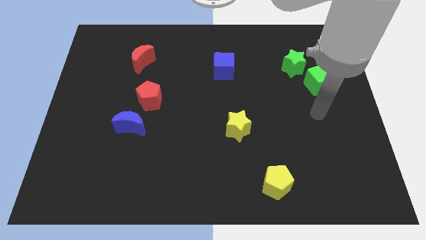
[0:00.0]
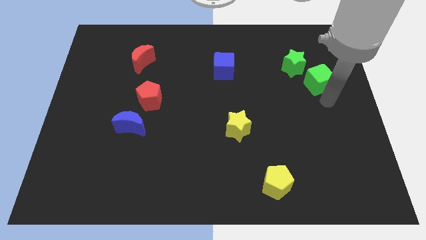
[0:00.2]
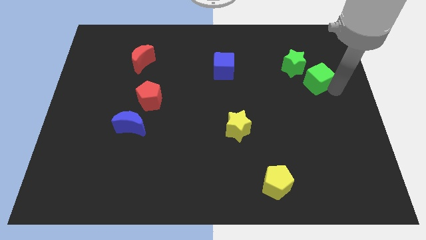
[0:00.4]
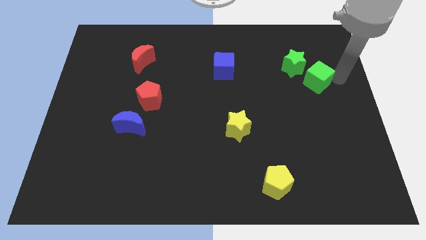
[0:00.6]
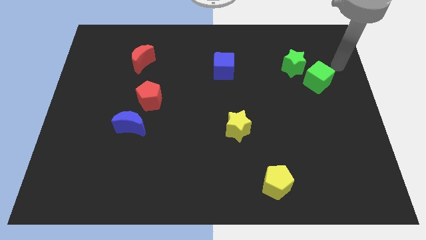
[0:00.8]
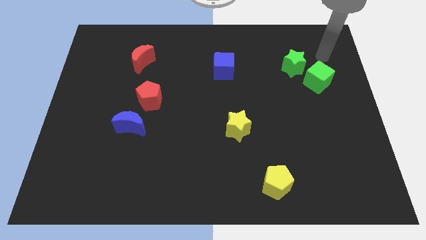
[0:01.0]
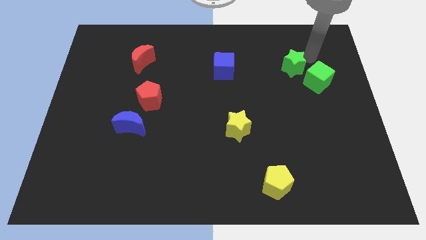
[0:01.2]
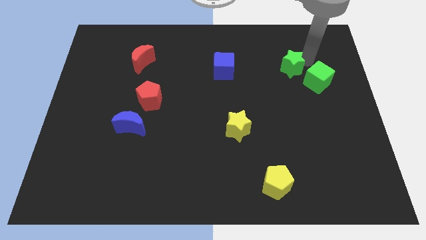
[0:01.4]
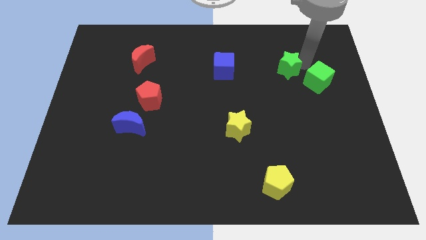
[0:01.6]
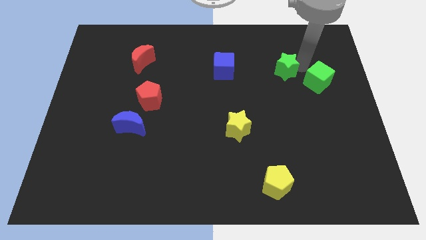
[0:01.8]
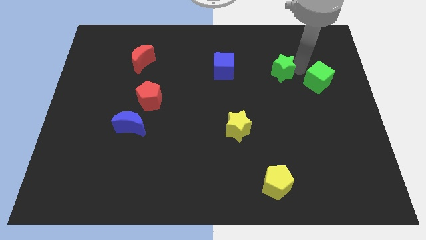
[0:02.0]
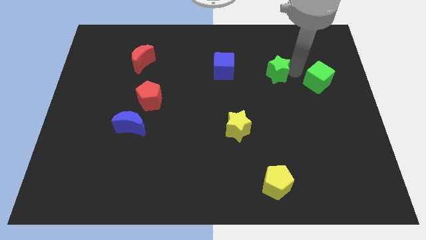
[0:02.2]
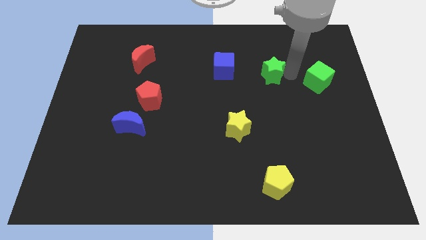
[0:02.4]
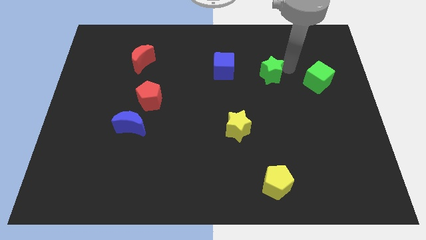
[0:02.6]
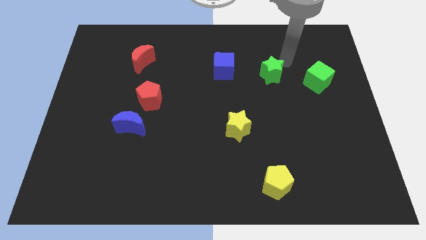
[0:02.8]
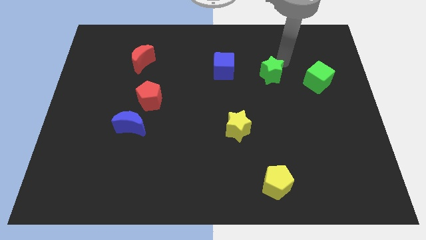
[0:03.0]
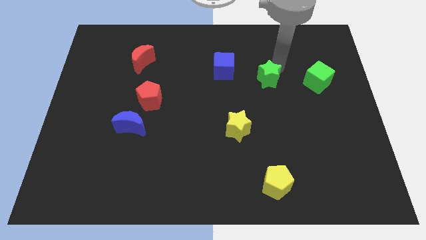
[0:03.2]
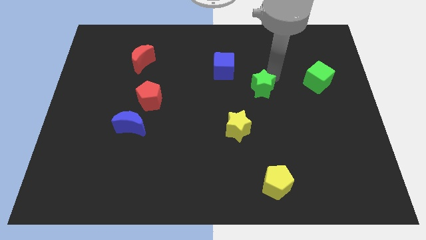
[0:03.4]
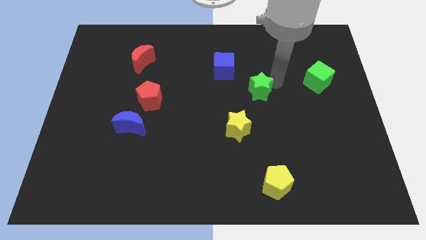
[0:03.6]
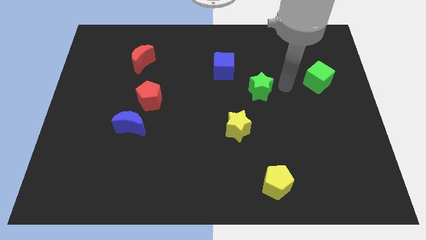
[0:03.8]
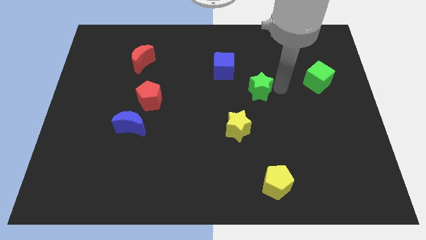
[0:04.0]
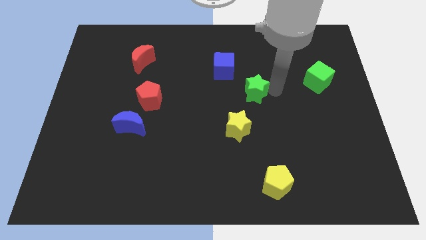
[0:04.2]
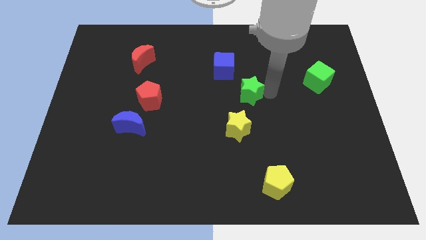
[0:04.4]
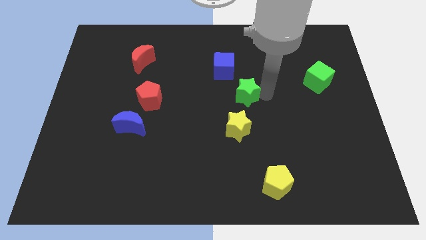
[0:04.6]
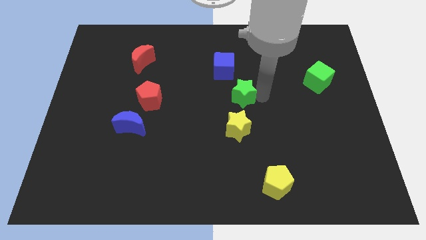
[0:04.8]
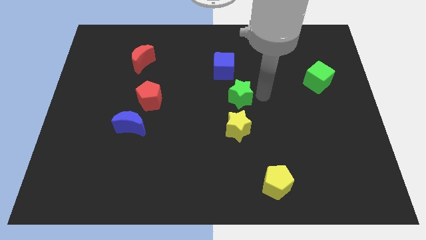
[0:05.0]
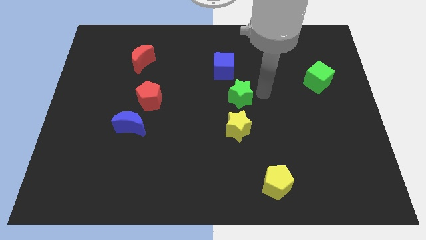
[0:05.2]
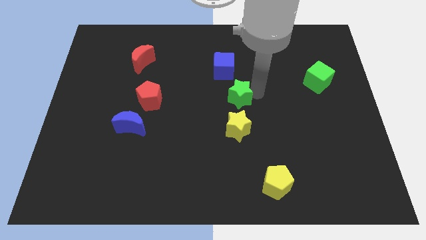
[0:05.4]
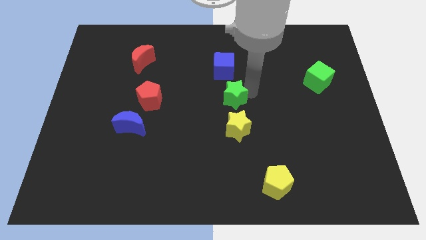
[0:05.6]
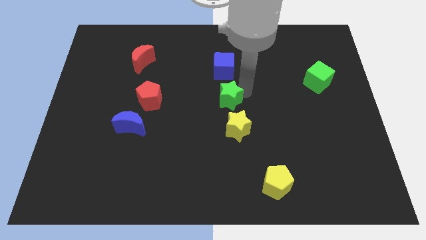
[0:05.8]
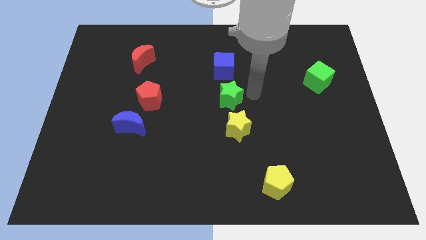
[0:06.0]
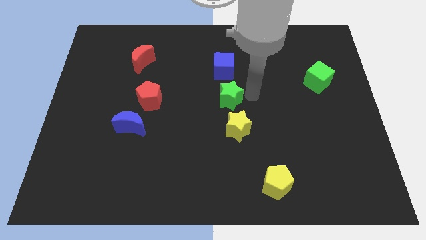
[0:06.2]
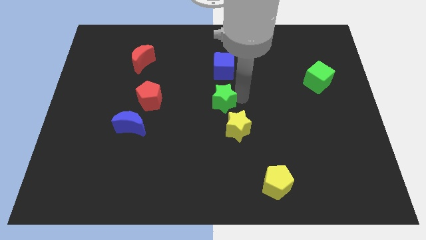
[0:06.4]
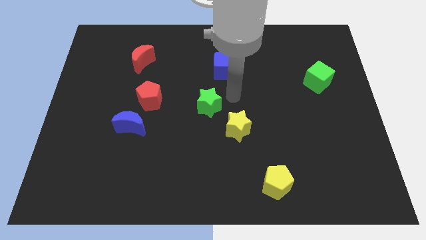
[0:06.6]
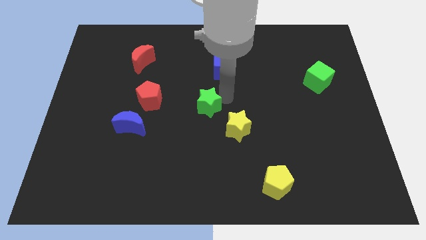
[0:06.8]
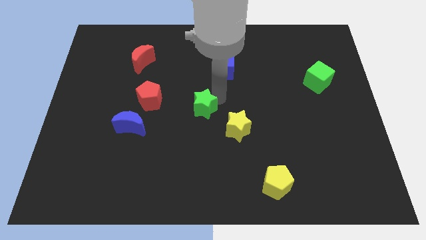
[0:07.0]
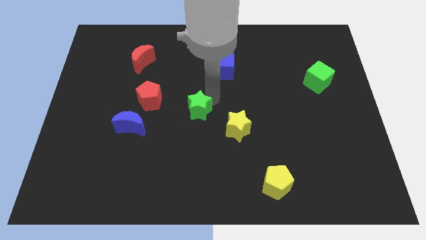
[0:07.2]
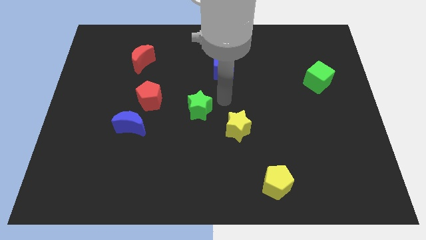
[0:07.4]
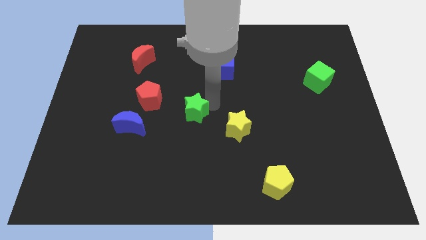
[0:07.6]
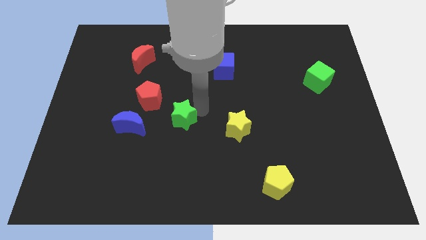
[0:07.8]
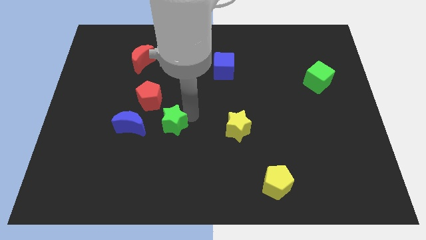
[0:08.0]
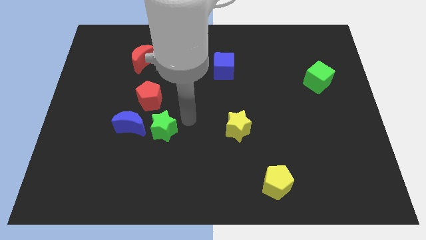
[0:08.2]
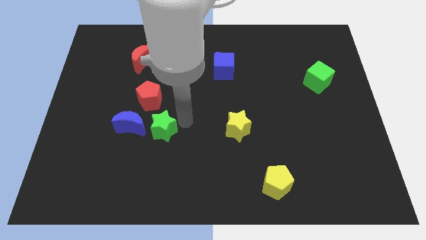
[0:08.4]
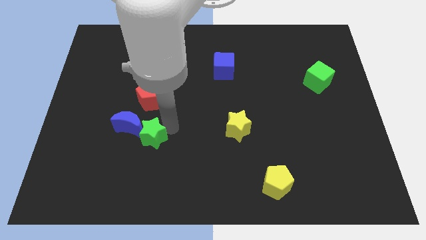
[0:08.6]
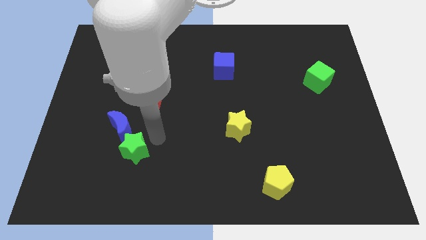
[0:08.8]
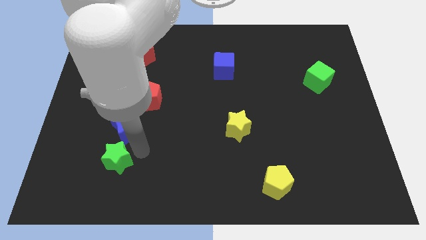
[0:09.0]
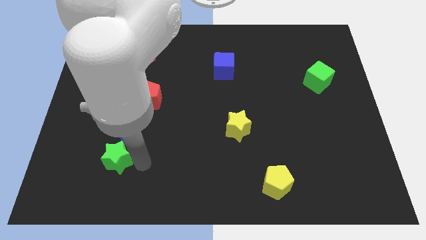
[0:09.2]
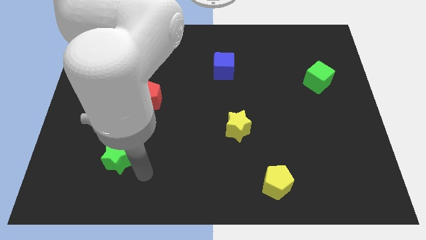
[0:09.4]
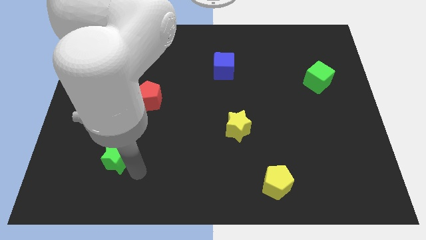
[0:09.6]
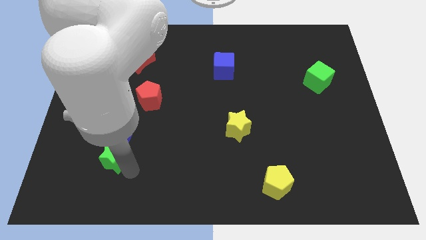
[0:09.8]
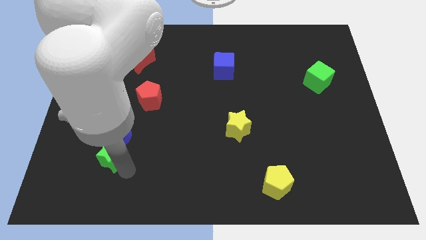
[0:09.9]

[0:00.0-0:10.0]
slide the green star diagonally down and to the left of the blue moon

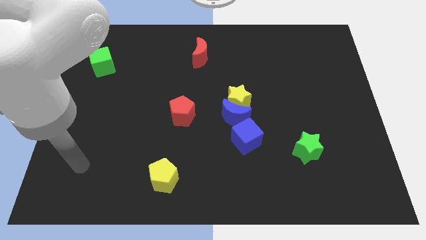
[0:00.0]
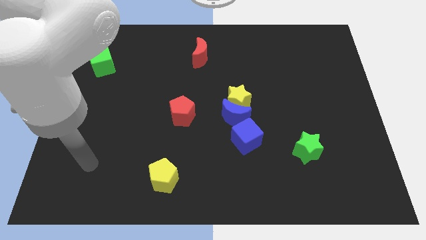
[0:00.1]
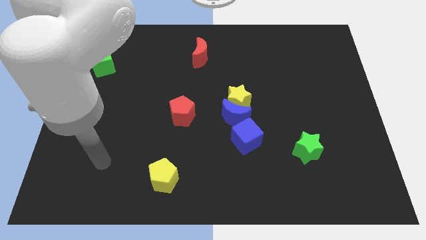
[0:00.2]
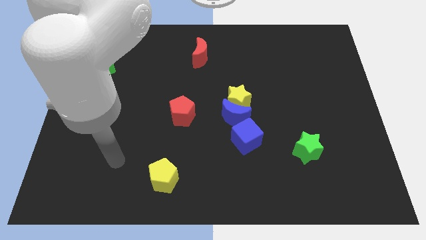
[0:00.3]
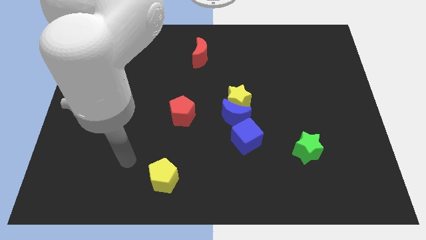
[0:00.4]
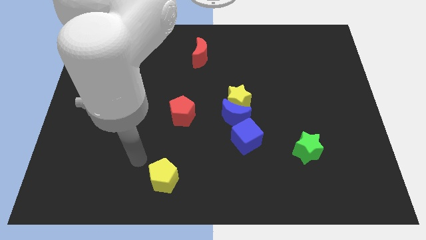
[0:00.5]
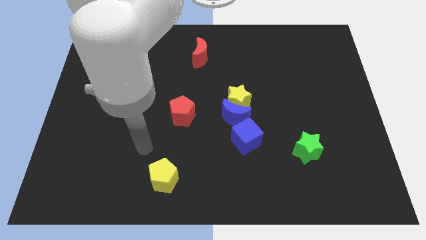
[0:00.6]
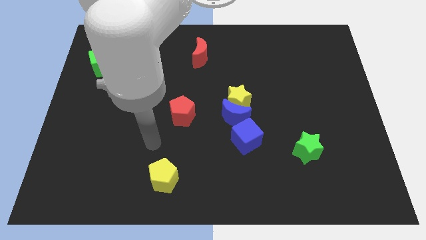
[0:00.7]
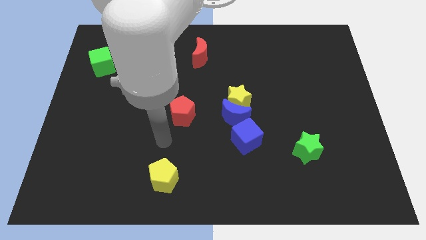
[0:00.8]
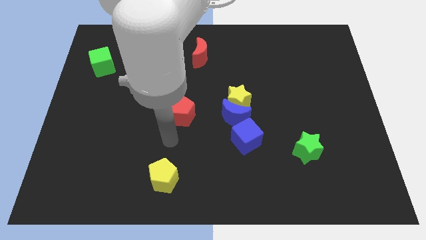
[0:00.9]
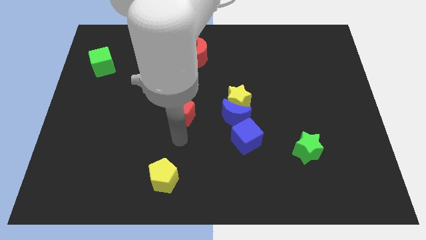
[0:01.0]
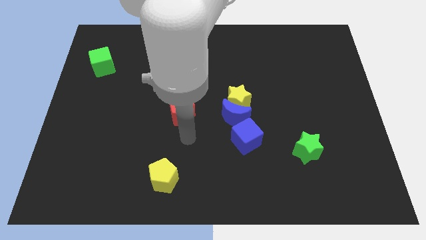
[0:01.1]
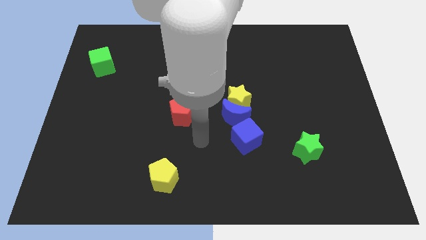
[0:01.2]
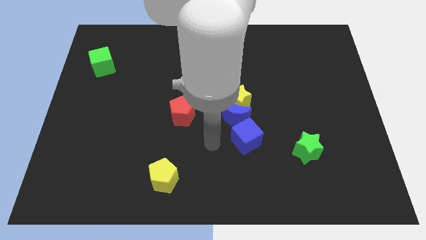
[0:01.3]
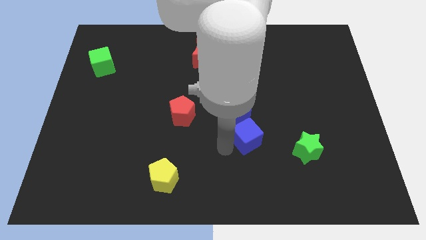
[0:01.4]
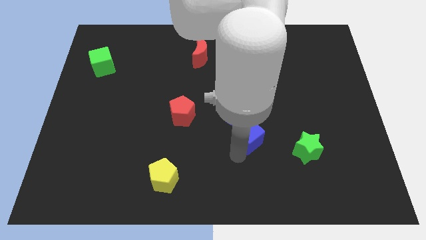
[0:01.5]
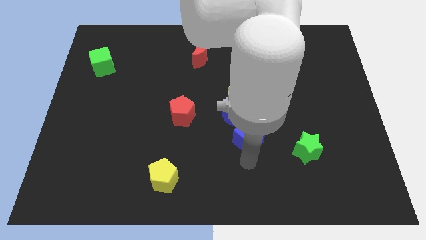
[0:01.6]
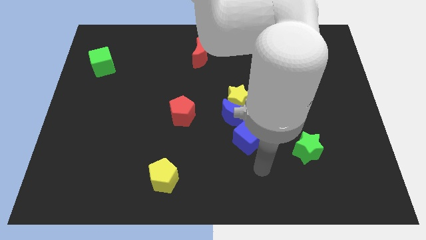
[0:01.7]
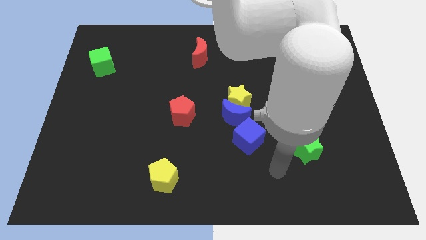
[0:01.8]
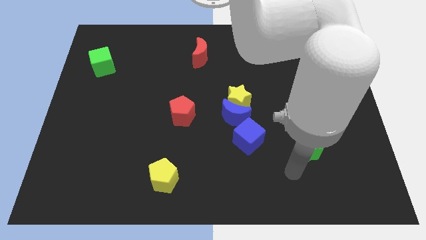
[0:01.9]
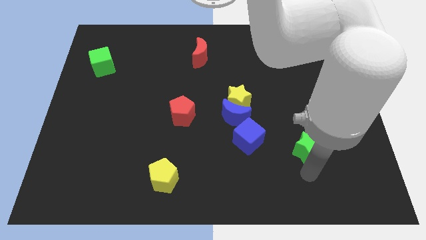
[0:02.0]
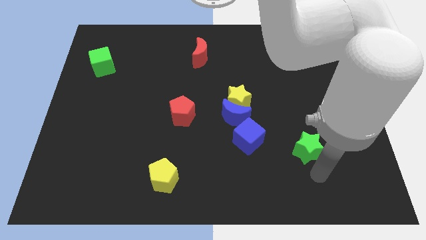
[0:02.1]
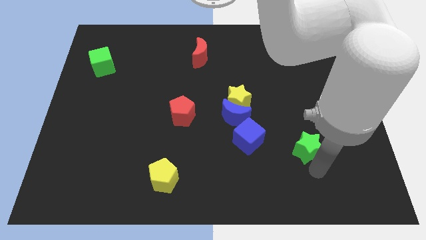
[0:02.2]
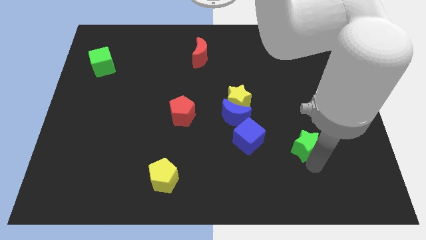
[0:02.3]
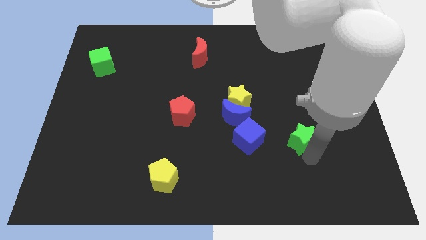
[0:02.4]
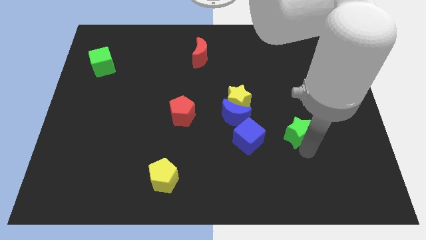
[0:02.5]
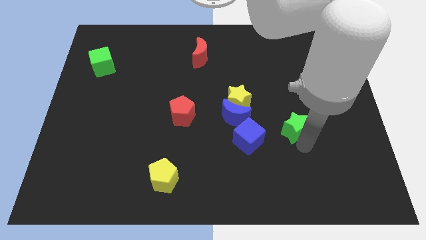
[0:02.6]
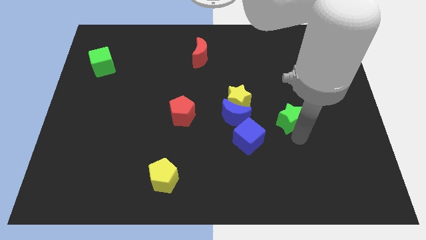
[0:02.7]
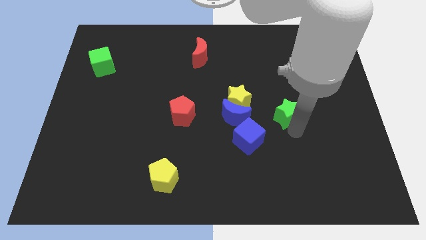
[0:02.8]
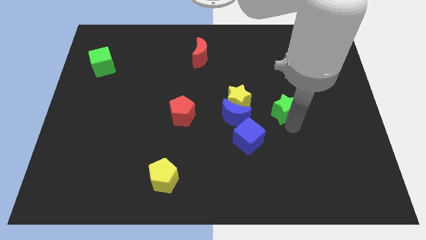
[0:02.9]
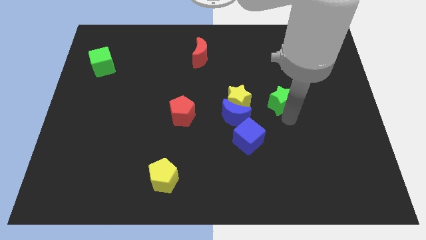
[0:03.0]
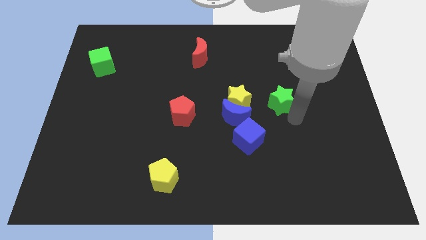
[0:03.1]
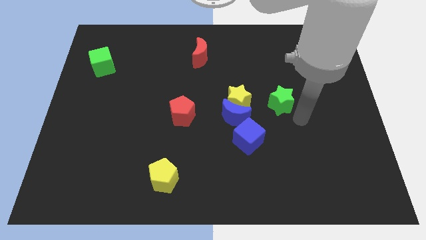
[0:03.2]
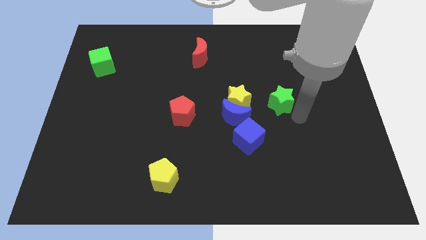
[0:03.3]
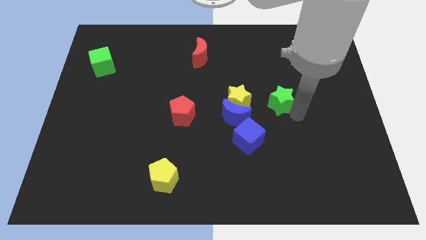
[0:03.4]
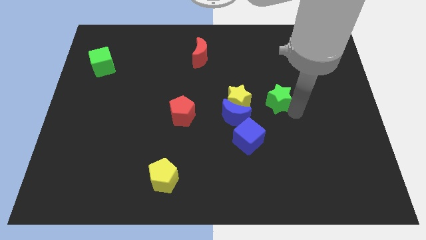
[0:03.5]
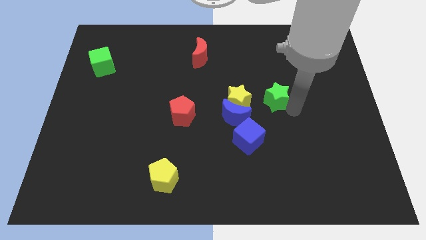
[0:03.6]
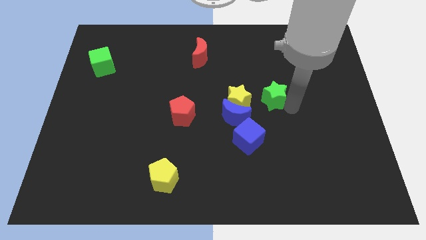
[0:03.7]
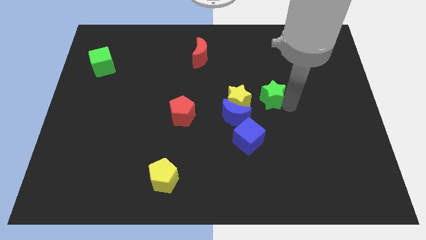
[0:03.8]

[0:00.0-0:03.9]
push the green star diagonally up and to the right of the yellow star
